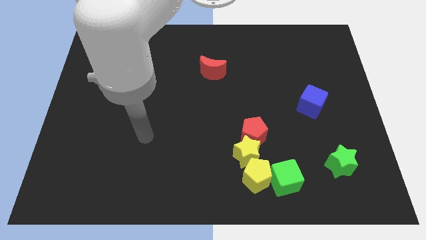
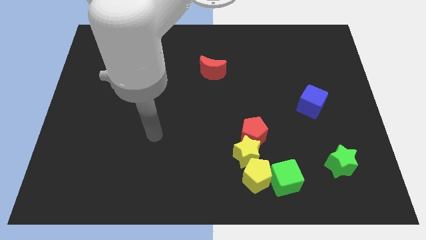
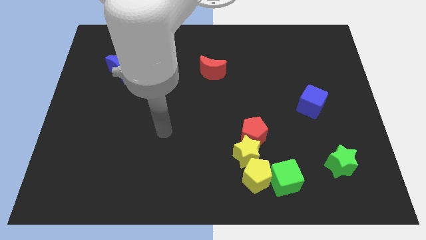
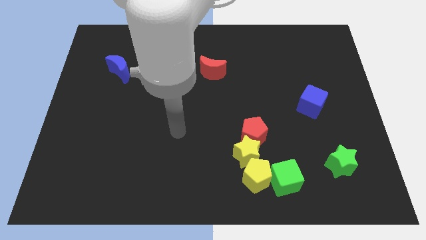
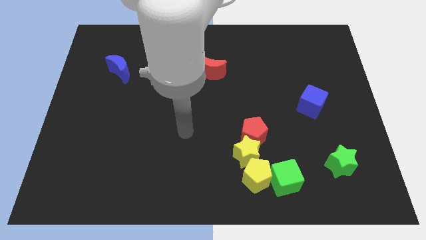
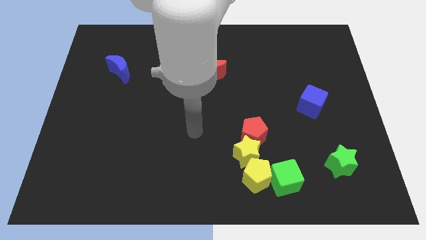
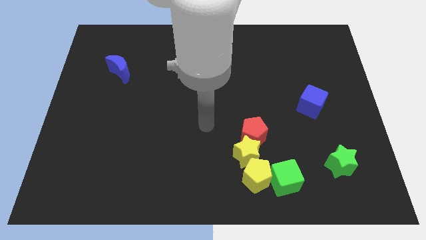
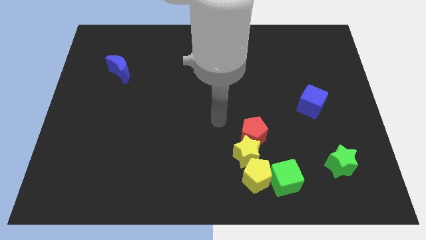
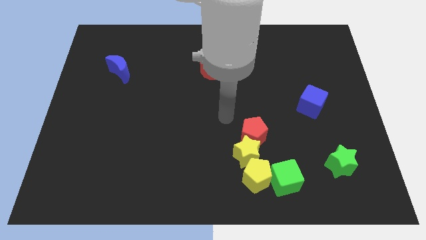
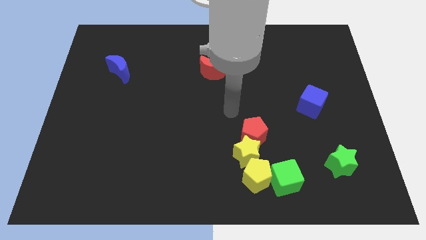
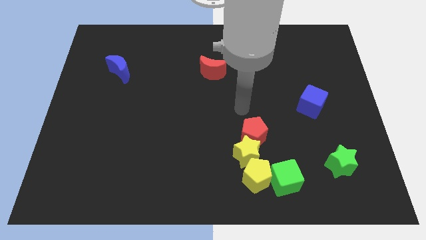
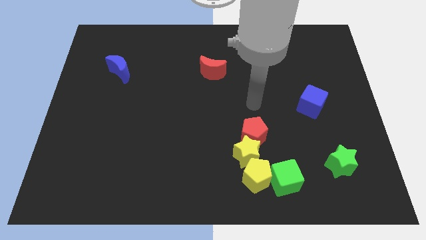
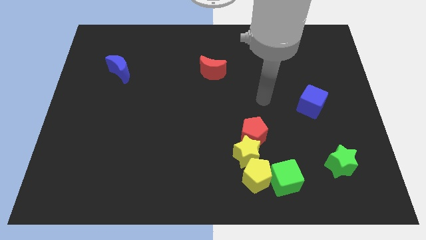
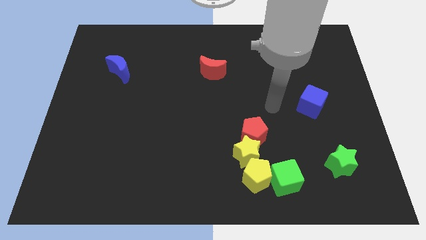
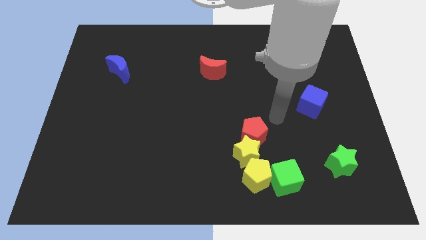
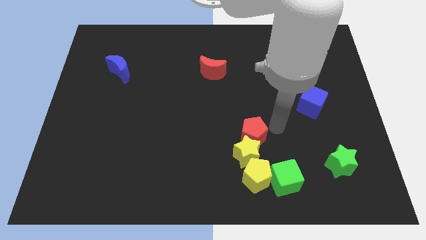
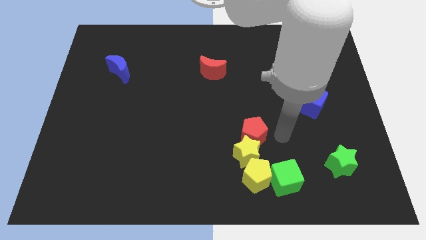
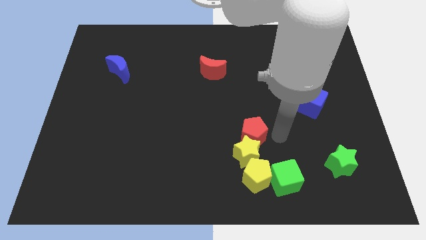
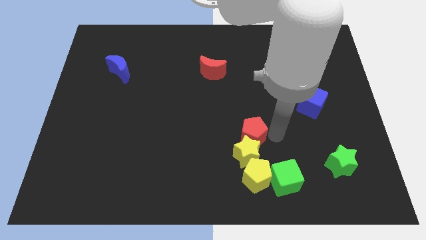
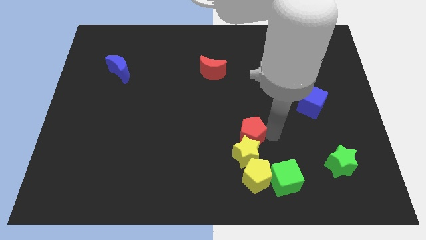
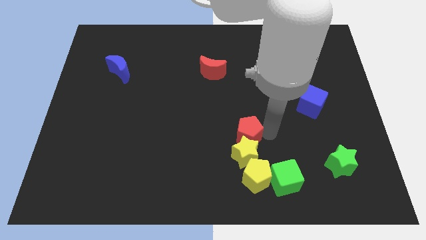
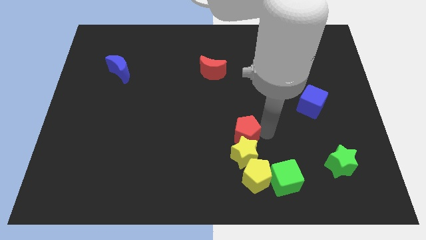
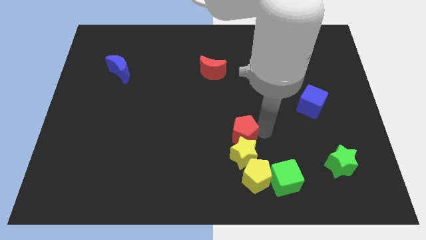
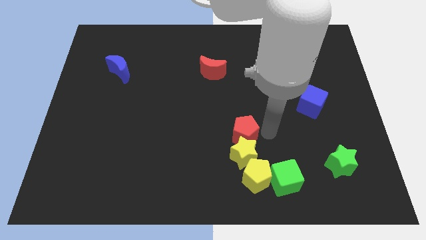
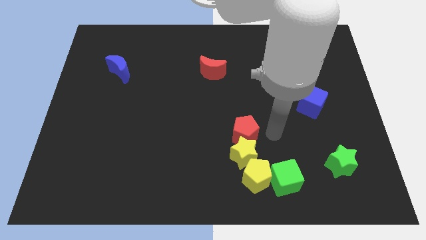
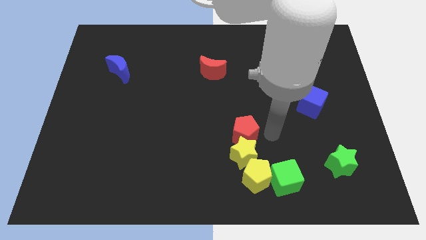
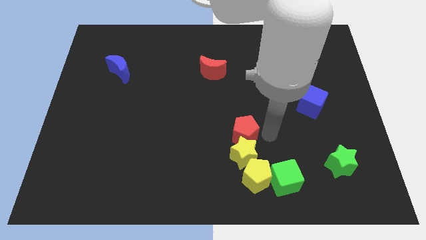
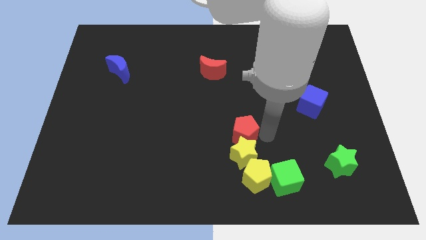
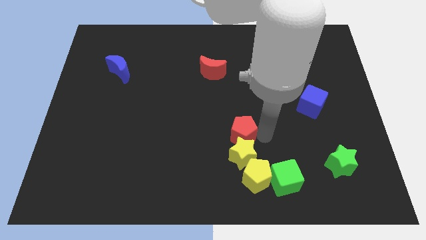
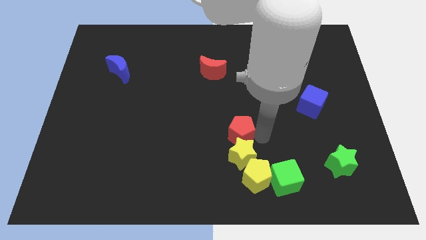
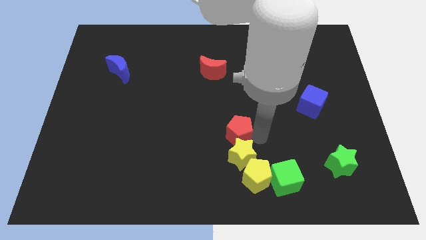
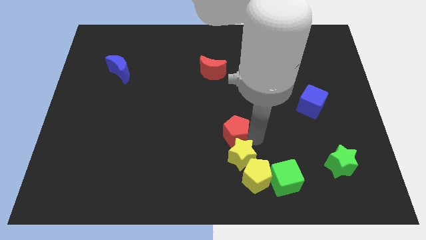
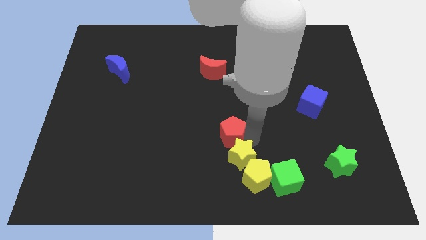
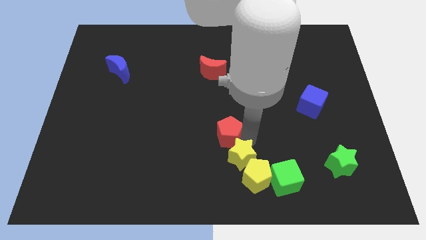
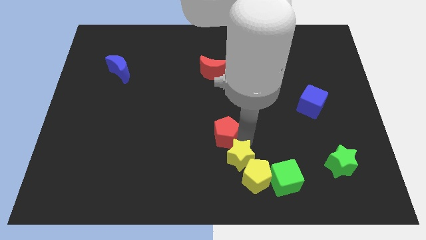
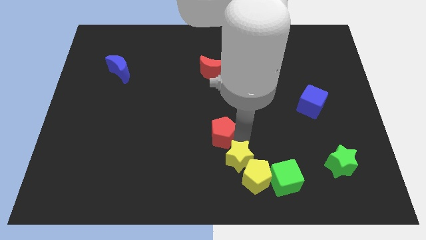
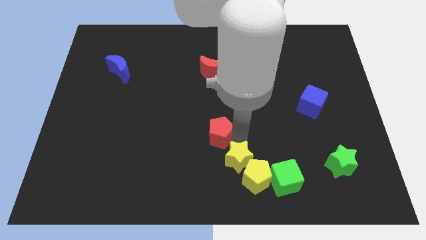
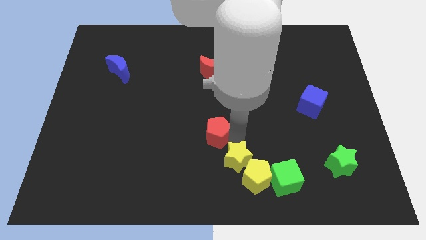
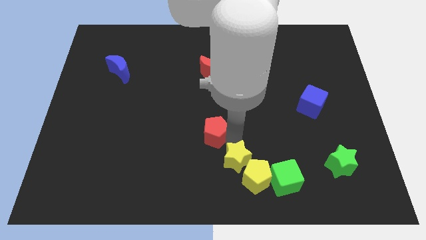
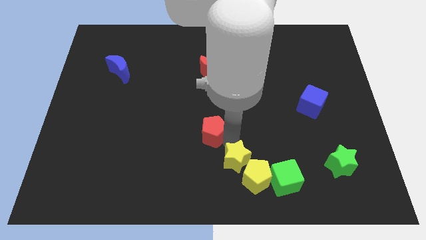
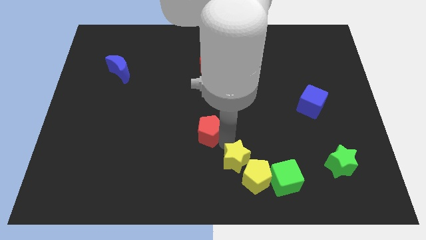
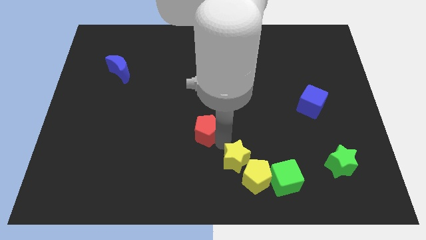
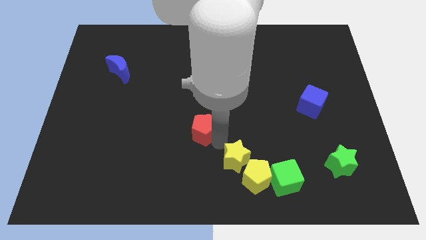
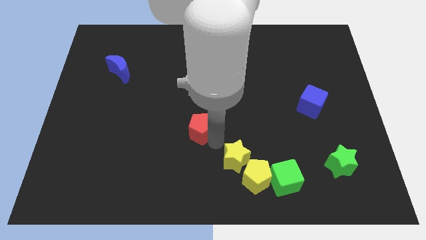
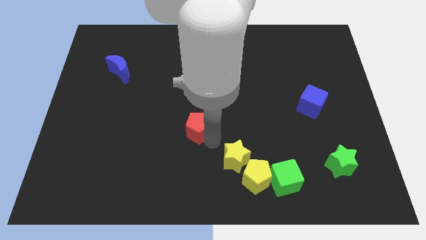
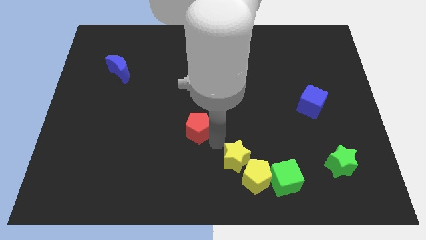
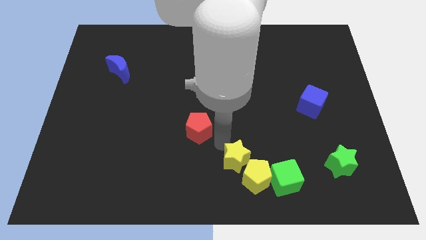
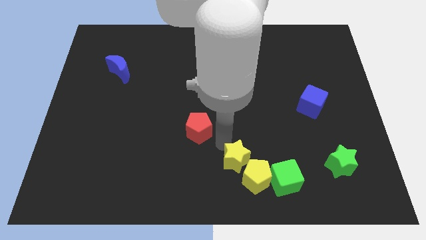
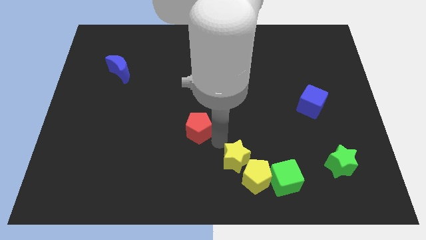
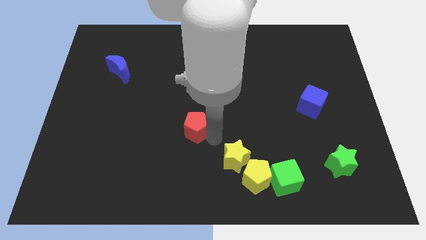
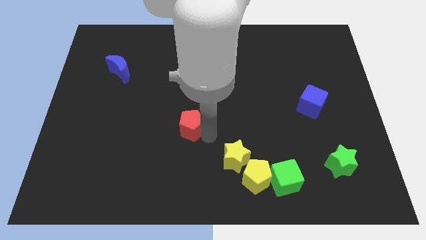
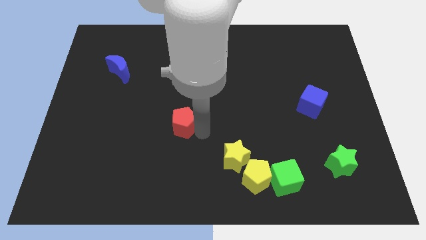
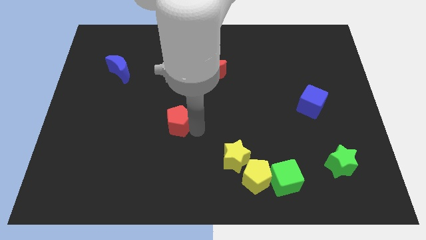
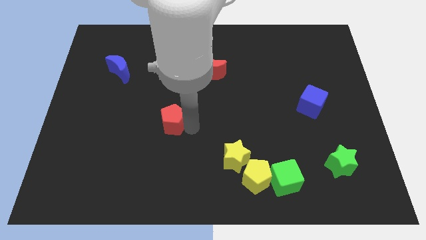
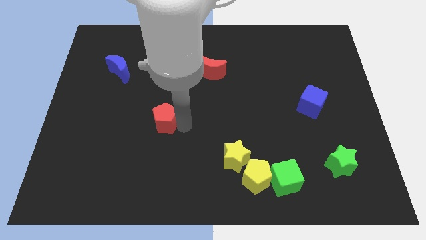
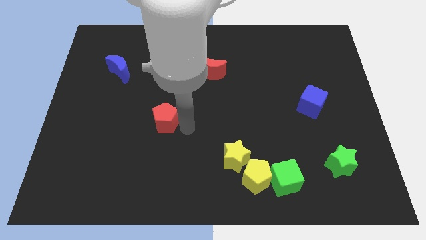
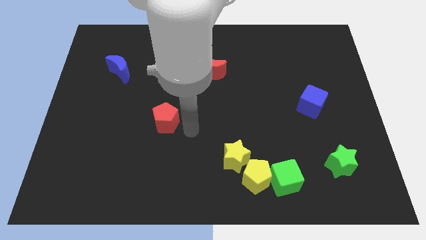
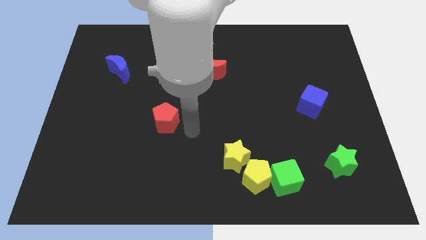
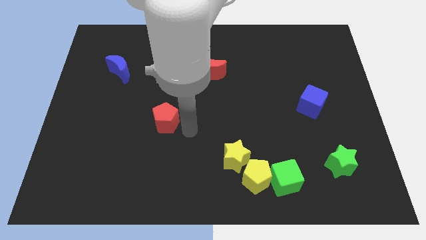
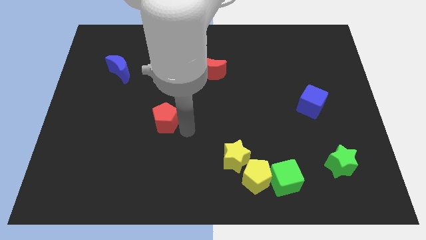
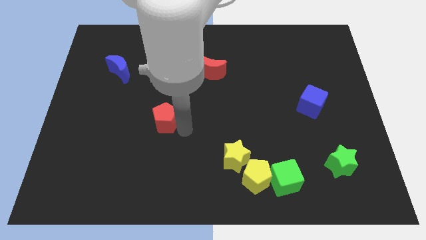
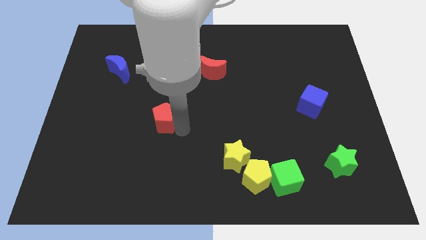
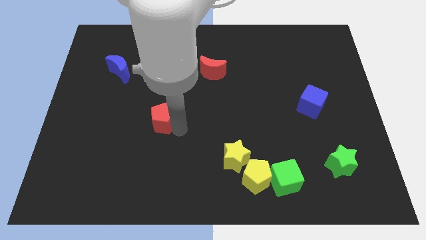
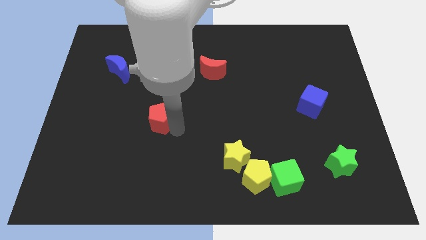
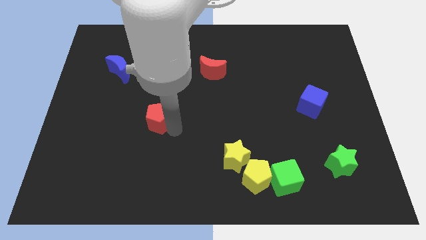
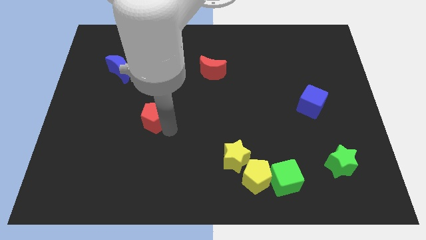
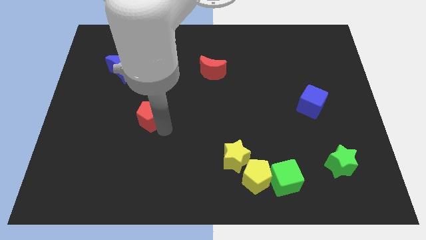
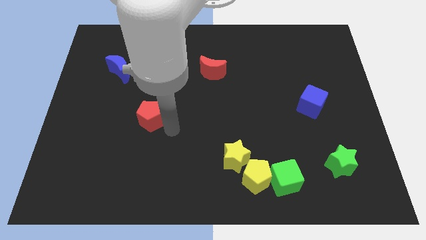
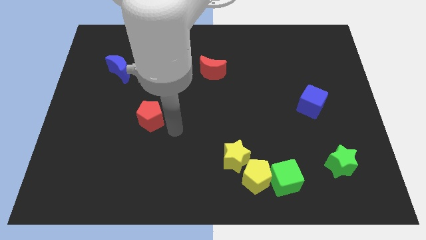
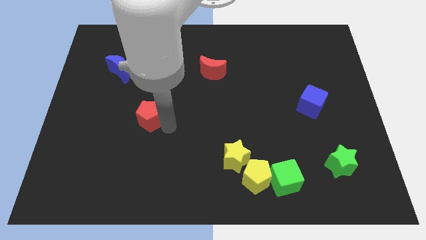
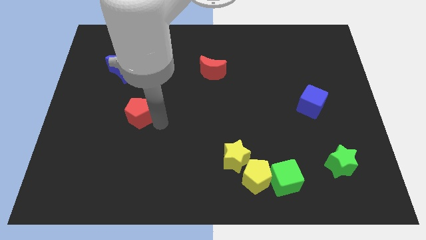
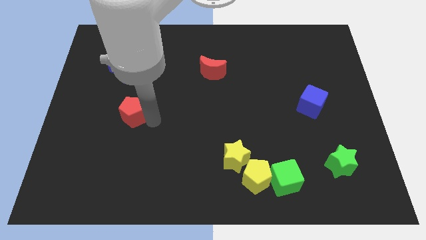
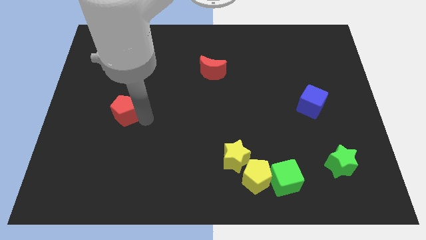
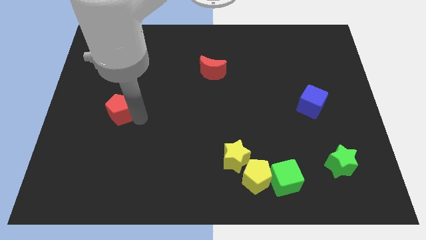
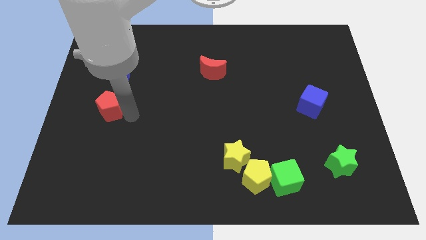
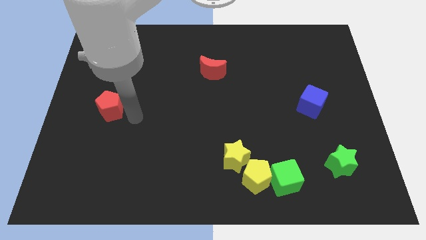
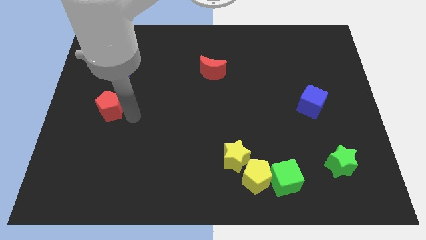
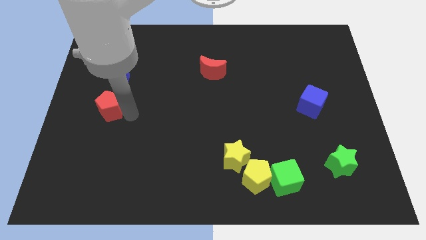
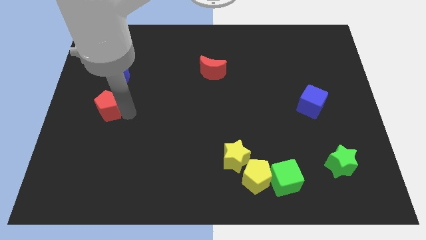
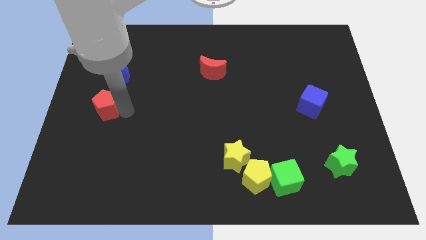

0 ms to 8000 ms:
put the red pentagon to the center left
